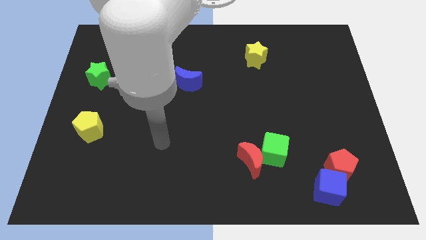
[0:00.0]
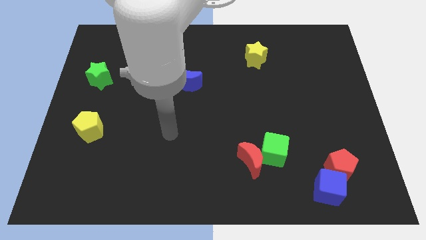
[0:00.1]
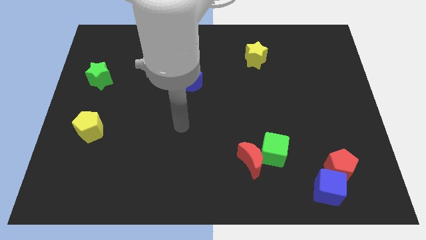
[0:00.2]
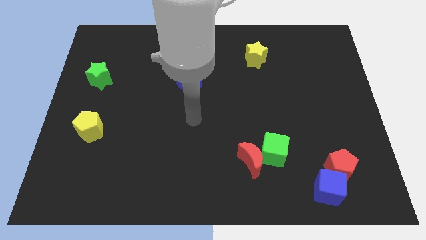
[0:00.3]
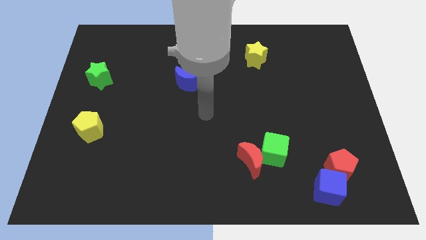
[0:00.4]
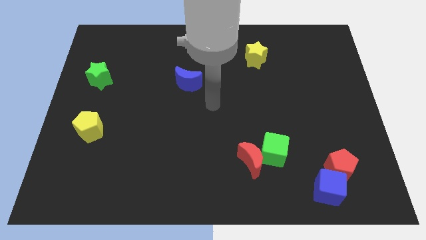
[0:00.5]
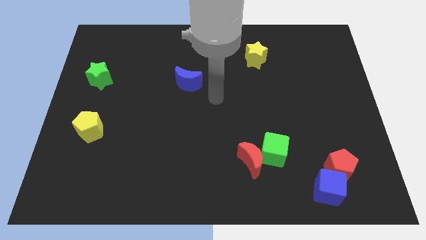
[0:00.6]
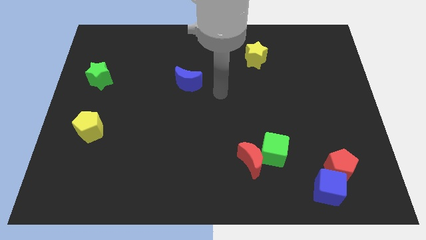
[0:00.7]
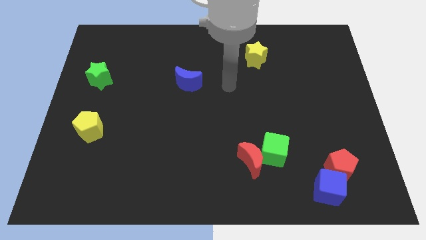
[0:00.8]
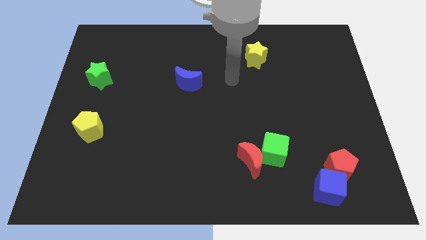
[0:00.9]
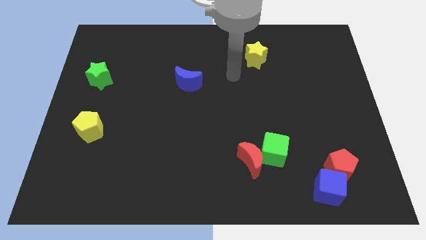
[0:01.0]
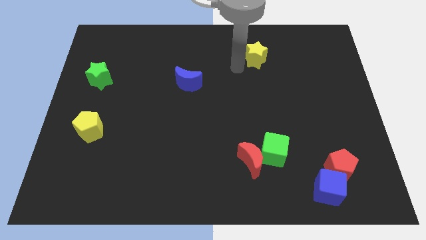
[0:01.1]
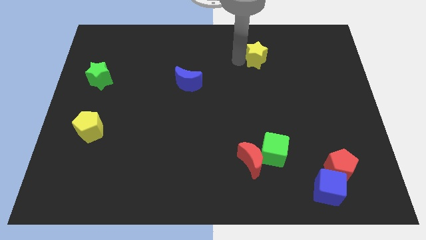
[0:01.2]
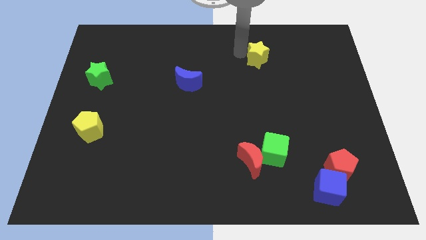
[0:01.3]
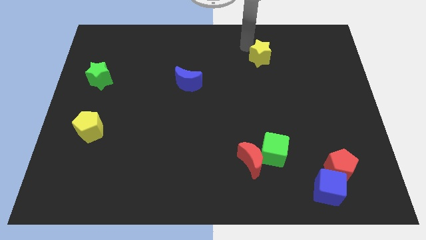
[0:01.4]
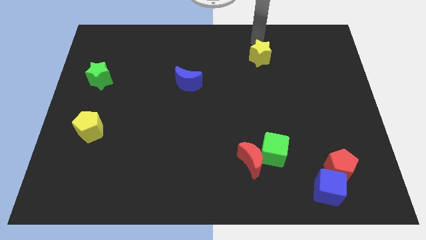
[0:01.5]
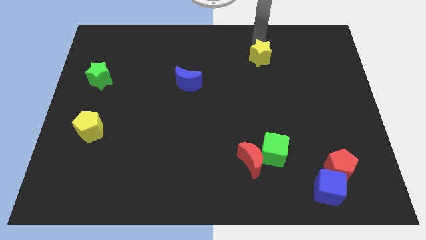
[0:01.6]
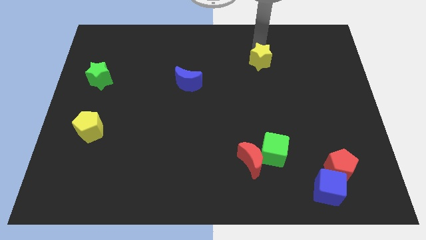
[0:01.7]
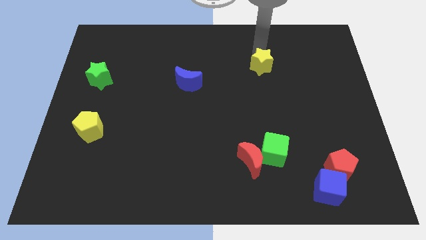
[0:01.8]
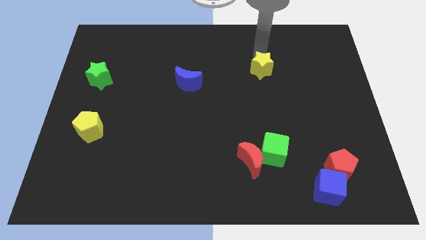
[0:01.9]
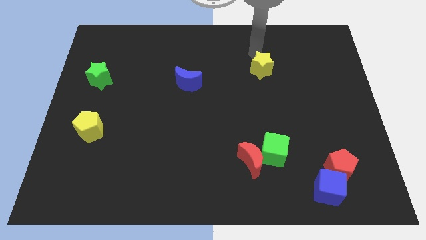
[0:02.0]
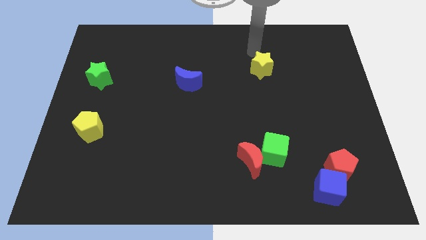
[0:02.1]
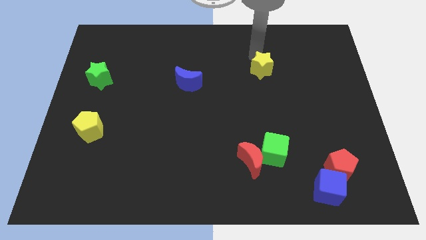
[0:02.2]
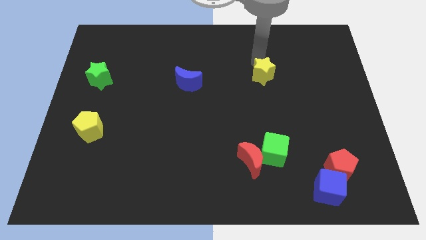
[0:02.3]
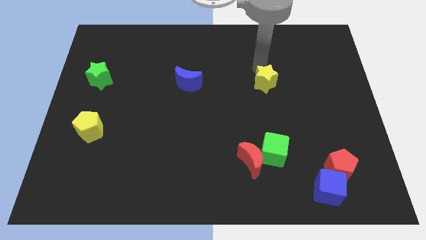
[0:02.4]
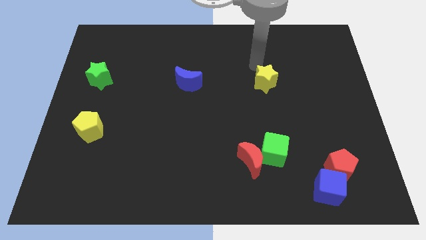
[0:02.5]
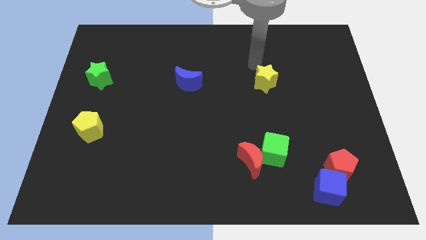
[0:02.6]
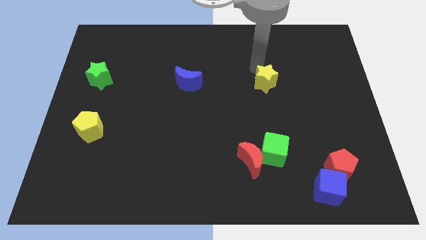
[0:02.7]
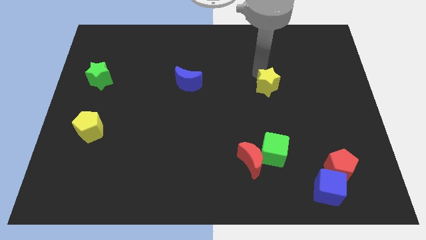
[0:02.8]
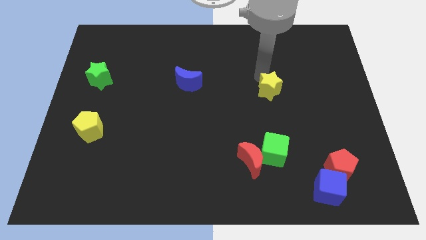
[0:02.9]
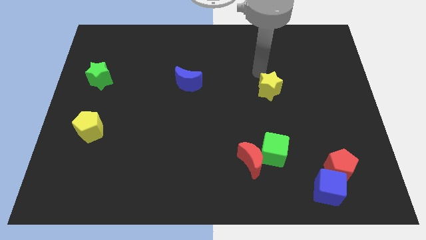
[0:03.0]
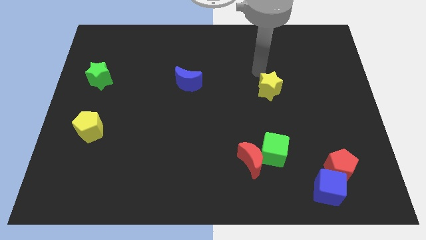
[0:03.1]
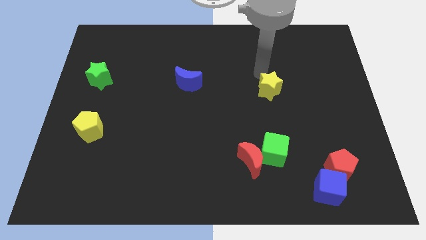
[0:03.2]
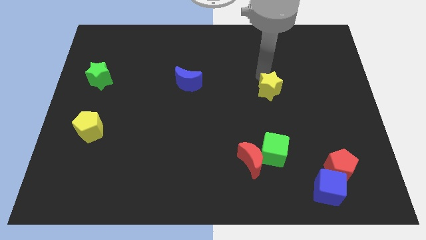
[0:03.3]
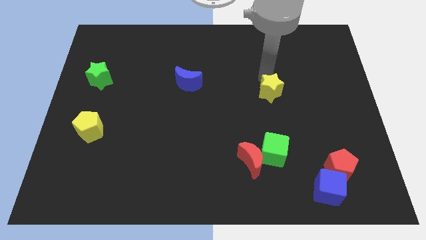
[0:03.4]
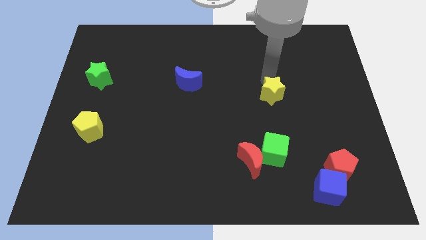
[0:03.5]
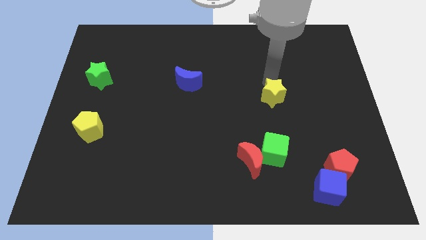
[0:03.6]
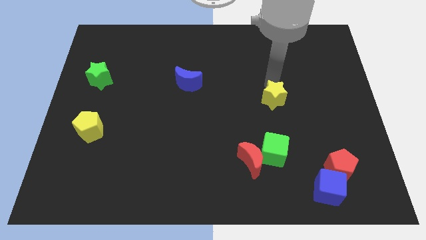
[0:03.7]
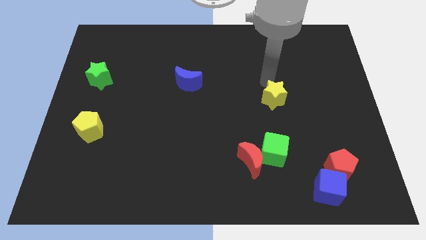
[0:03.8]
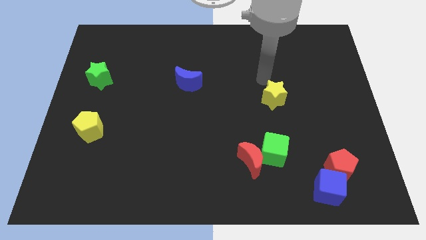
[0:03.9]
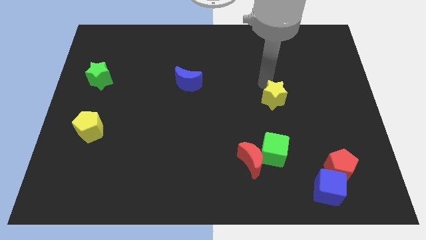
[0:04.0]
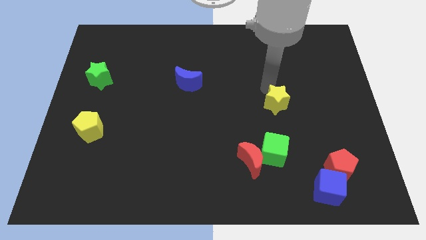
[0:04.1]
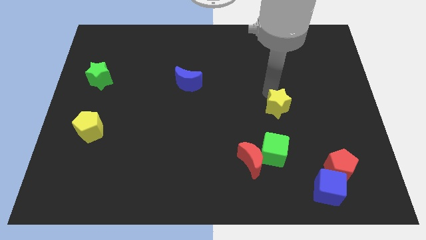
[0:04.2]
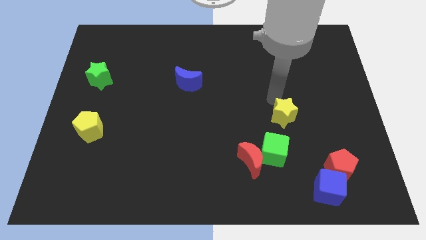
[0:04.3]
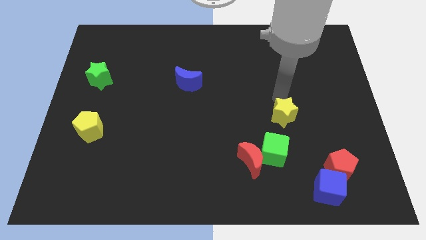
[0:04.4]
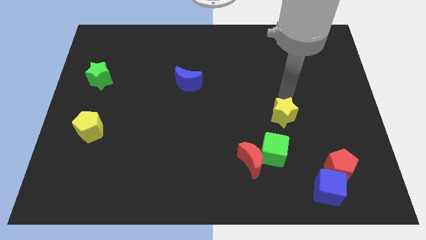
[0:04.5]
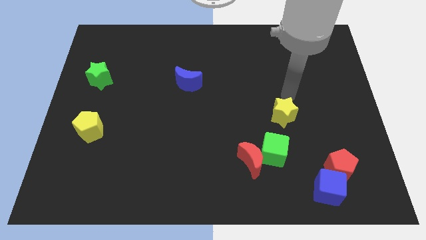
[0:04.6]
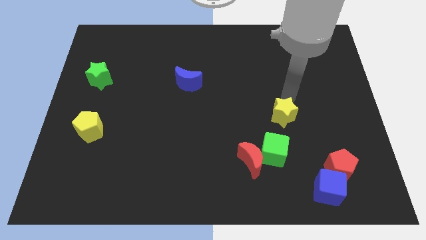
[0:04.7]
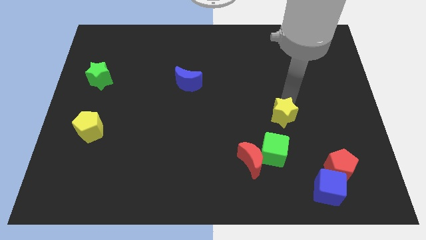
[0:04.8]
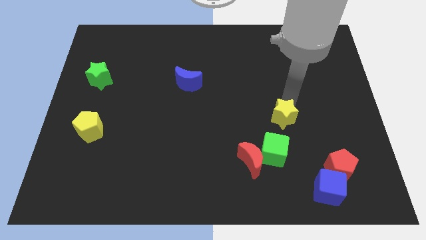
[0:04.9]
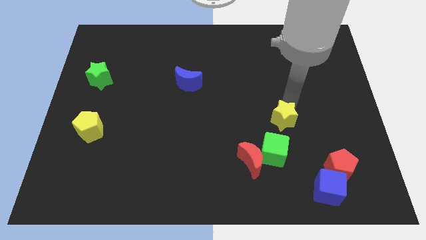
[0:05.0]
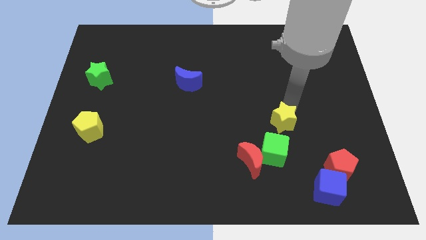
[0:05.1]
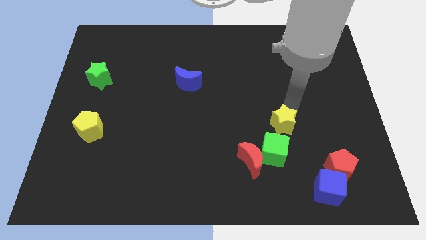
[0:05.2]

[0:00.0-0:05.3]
slide the yellow star to the top right of the red moon

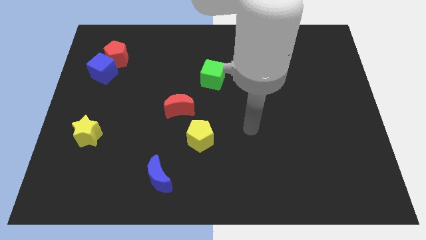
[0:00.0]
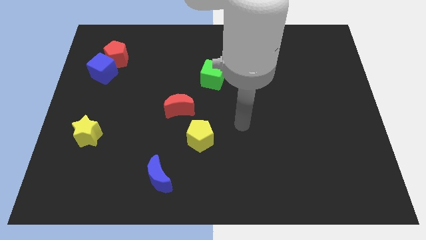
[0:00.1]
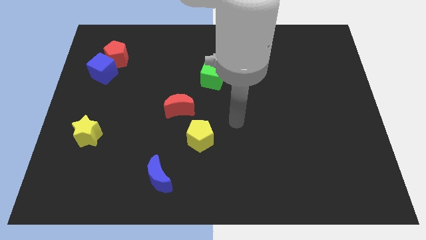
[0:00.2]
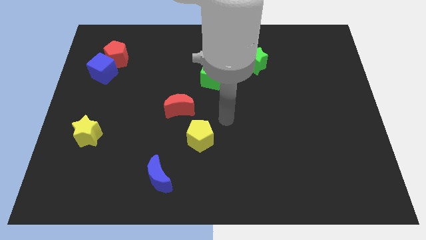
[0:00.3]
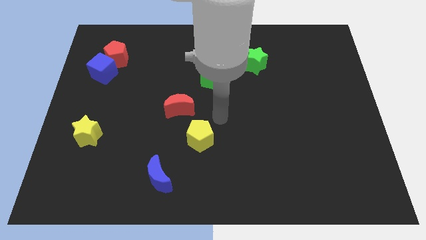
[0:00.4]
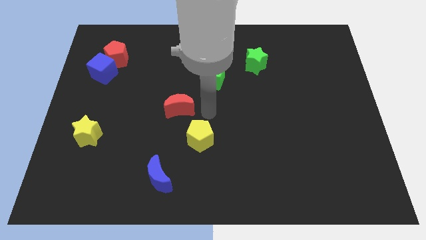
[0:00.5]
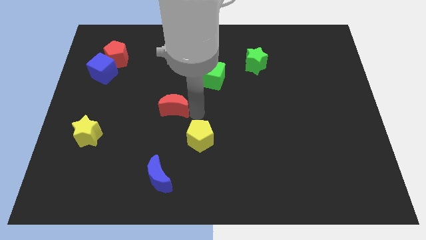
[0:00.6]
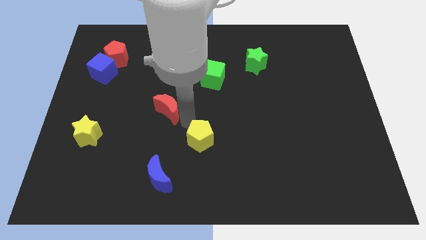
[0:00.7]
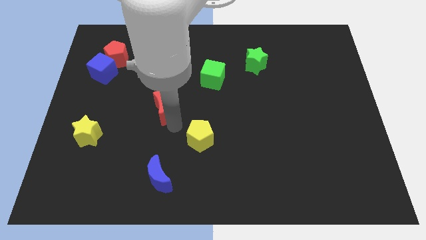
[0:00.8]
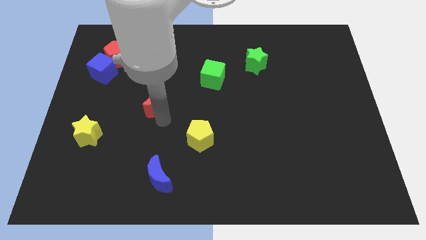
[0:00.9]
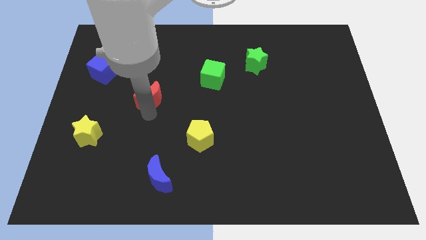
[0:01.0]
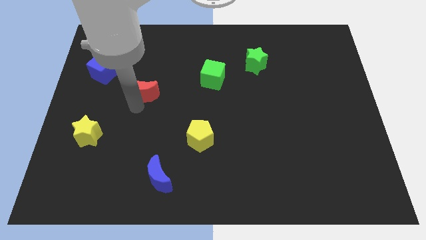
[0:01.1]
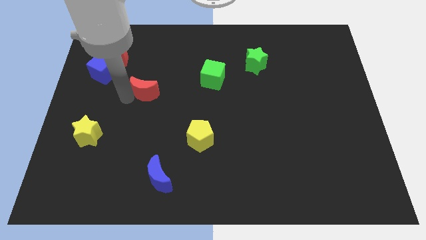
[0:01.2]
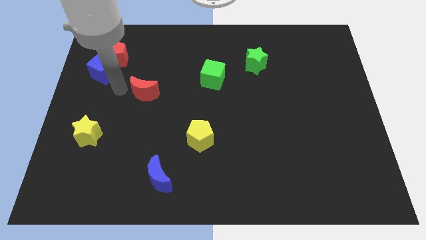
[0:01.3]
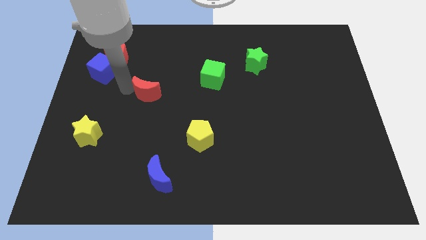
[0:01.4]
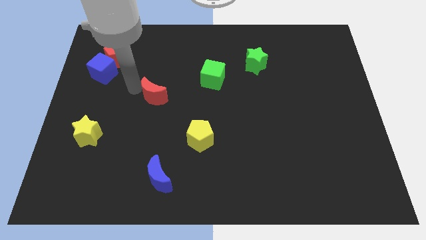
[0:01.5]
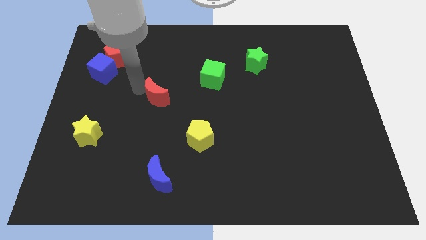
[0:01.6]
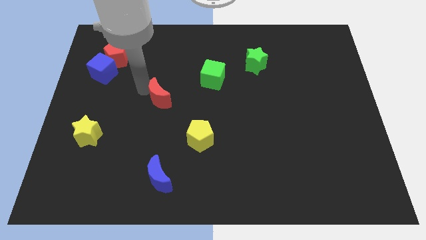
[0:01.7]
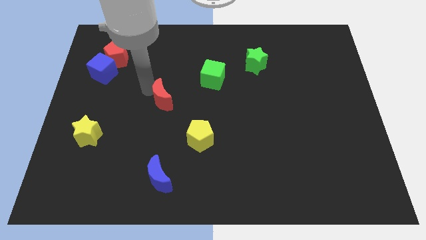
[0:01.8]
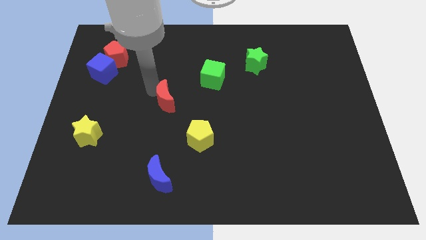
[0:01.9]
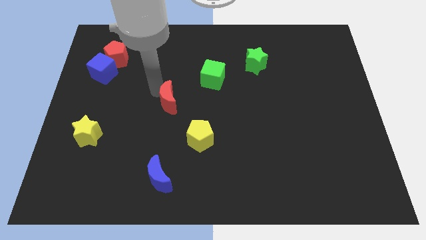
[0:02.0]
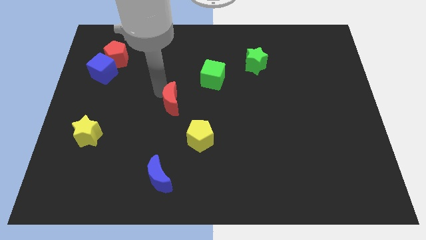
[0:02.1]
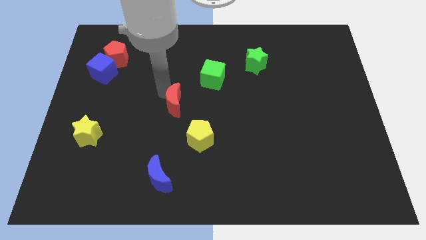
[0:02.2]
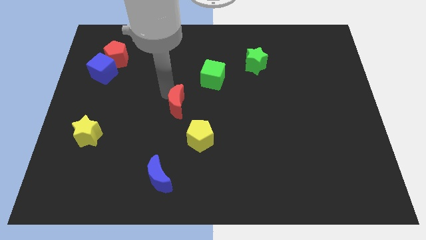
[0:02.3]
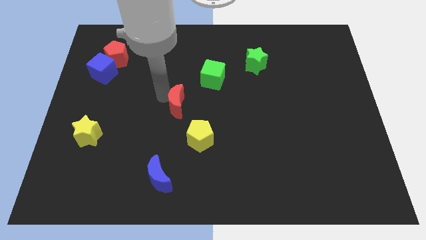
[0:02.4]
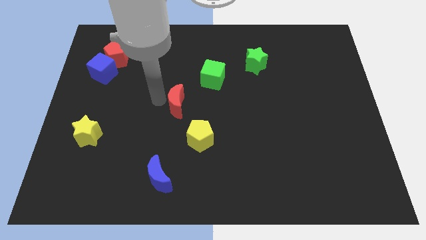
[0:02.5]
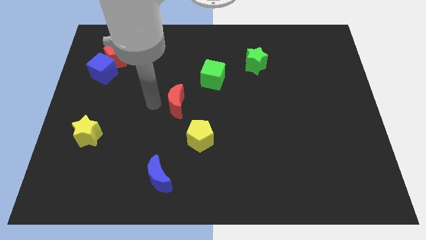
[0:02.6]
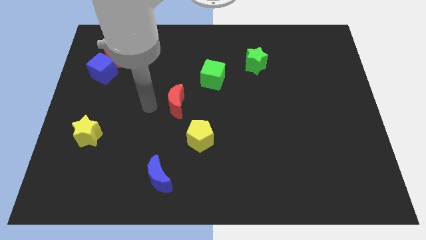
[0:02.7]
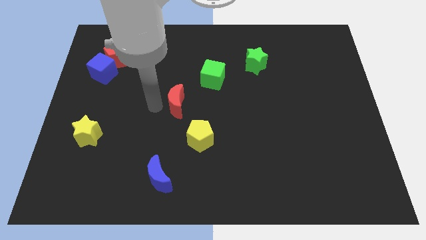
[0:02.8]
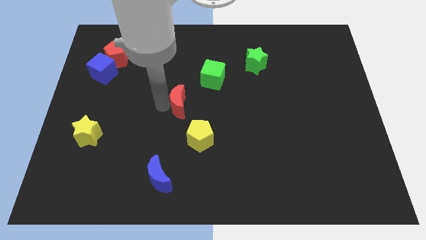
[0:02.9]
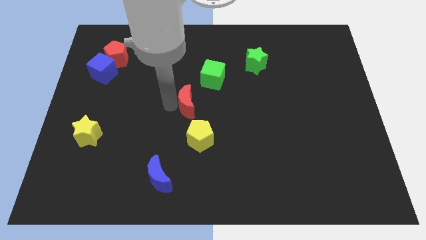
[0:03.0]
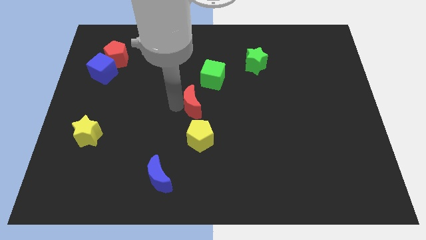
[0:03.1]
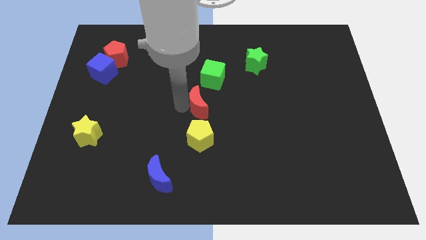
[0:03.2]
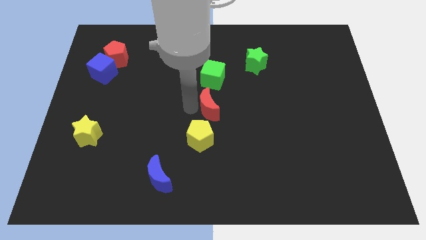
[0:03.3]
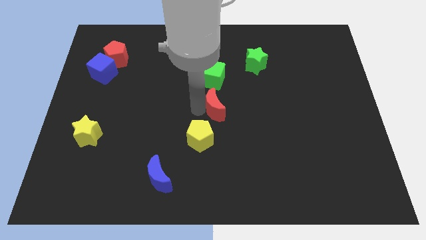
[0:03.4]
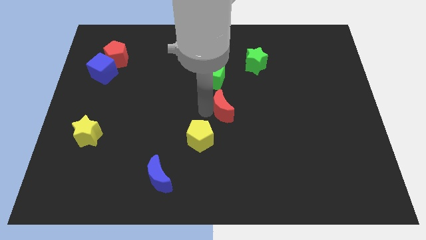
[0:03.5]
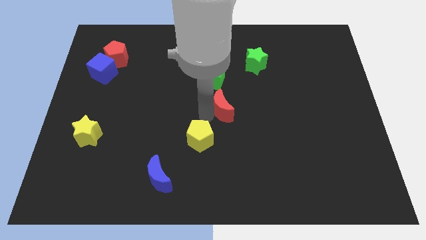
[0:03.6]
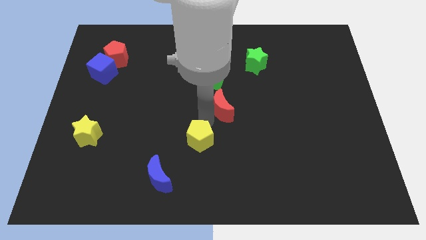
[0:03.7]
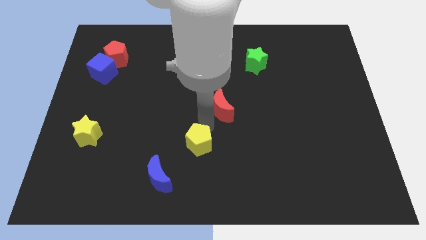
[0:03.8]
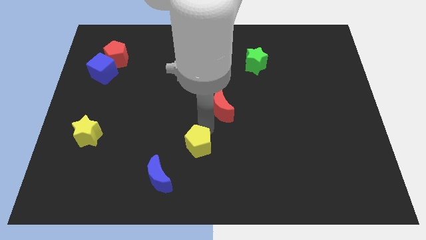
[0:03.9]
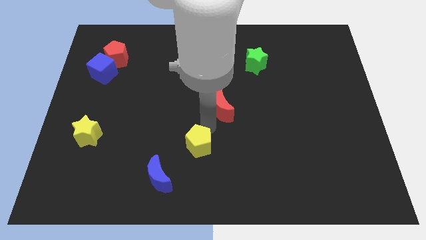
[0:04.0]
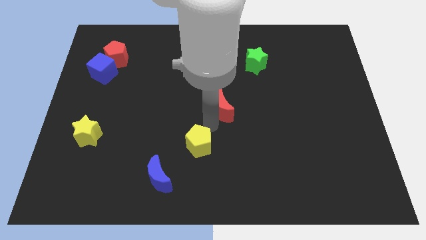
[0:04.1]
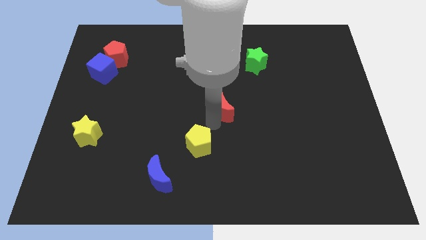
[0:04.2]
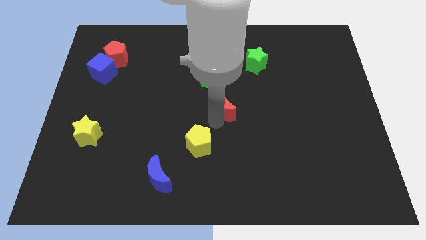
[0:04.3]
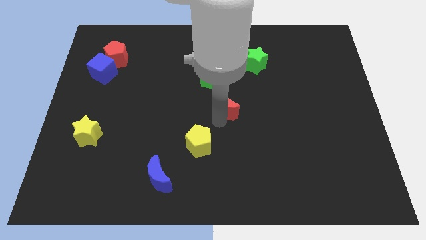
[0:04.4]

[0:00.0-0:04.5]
put the red moon to the bottom right of the green cube
